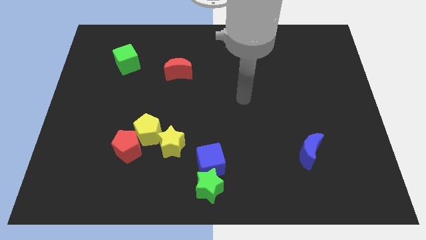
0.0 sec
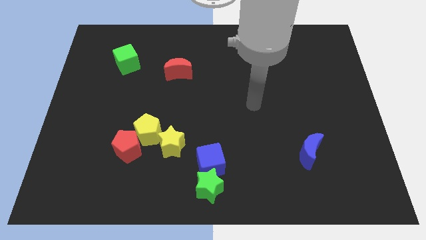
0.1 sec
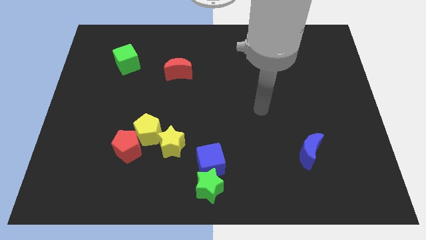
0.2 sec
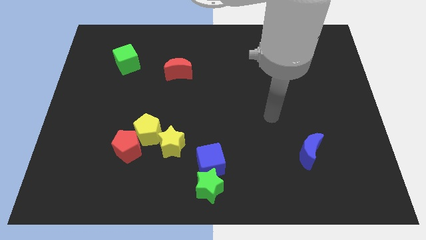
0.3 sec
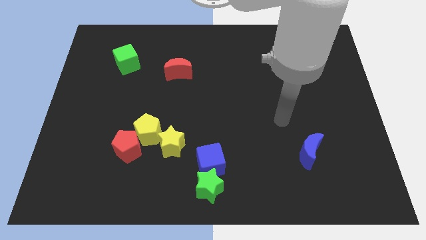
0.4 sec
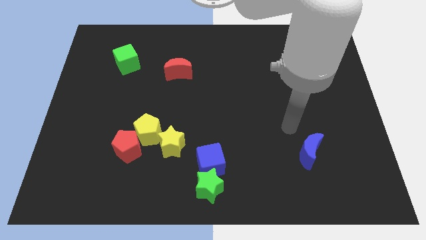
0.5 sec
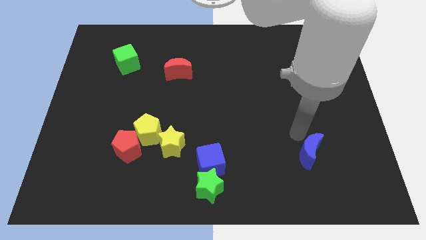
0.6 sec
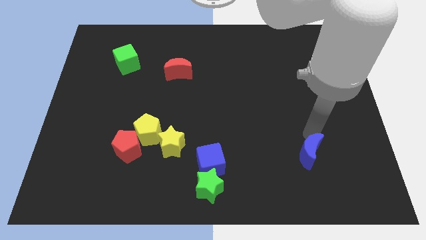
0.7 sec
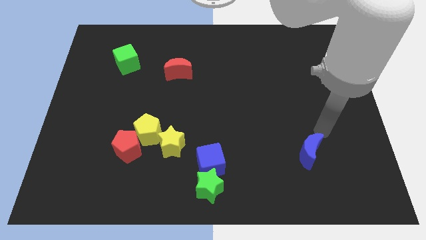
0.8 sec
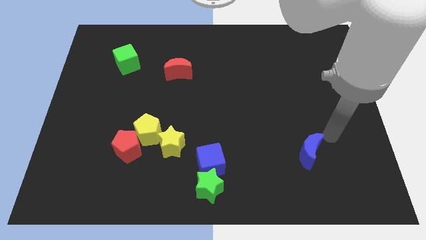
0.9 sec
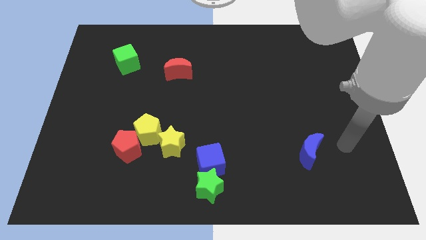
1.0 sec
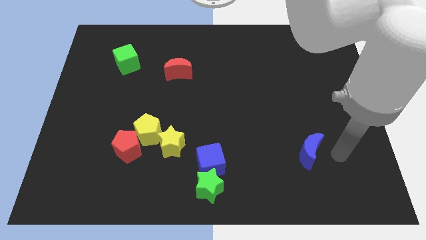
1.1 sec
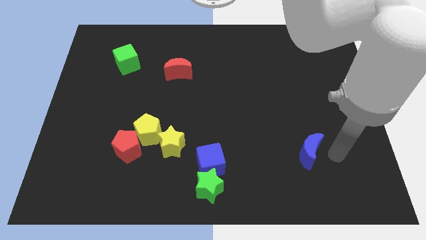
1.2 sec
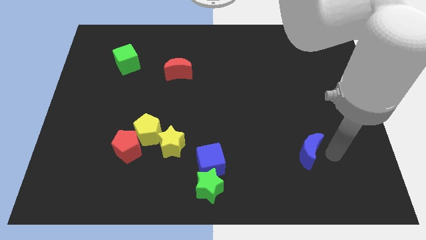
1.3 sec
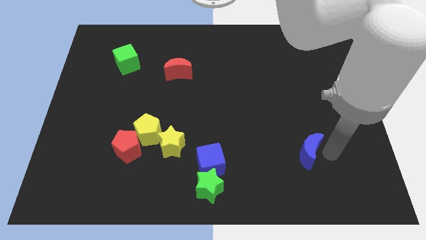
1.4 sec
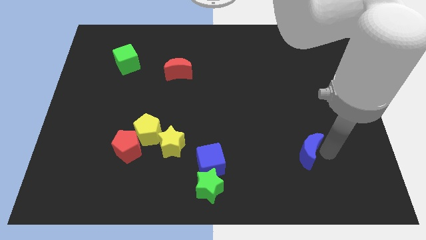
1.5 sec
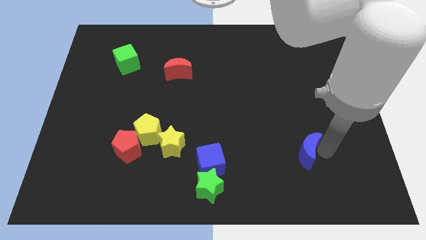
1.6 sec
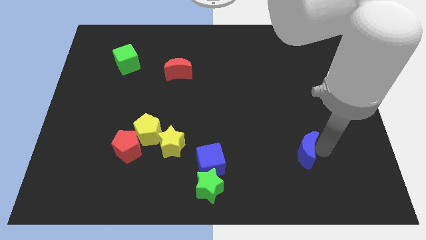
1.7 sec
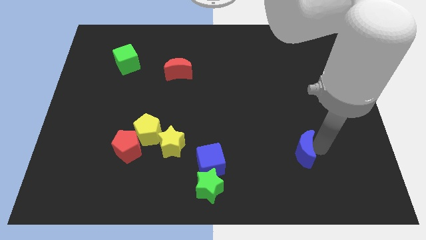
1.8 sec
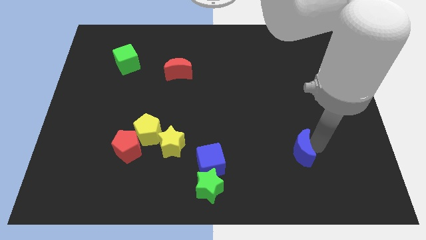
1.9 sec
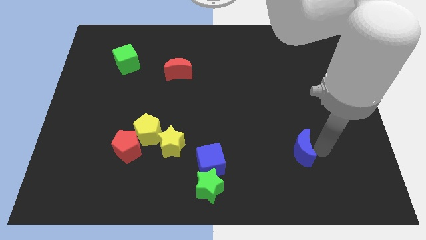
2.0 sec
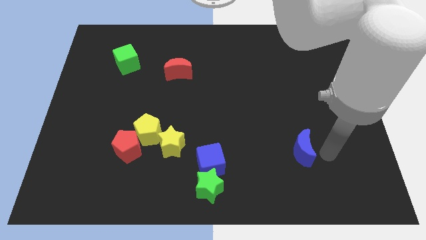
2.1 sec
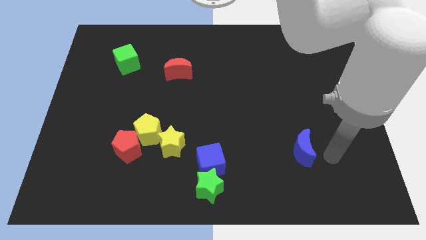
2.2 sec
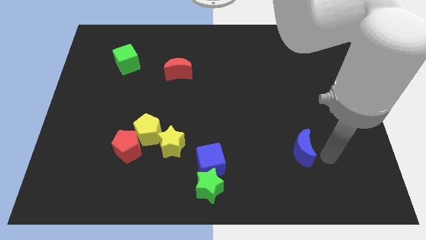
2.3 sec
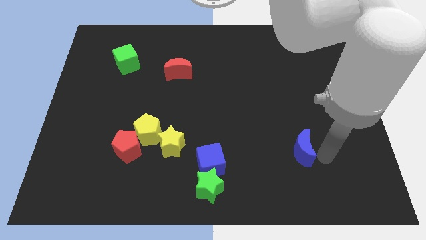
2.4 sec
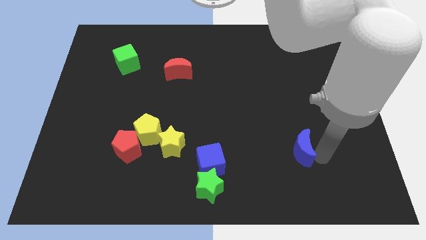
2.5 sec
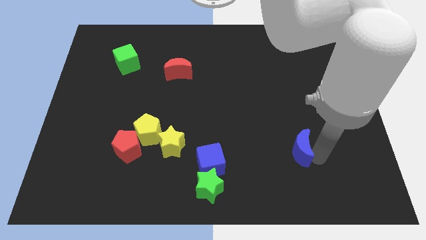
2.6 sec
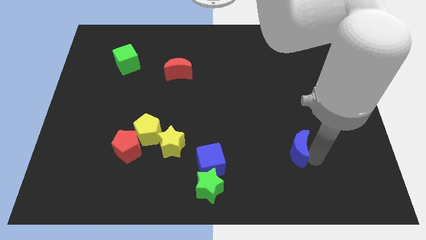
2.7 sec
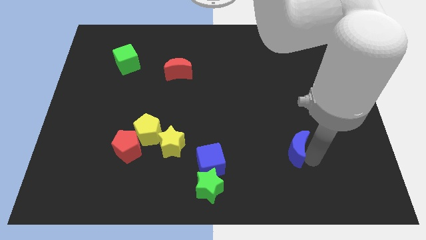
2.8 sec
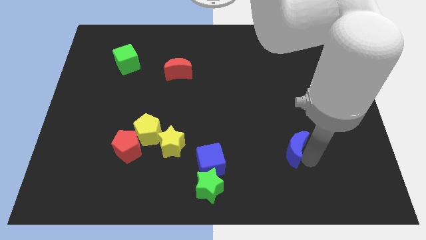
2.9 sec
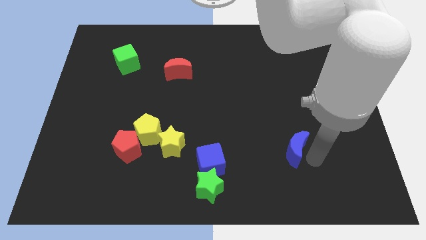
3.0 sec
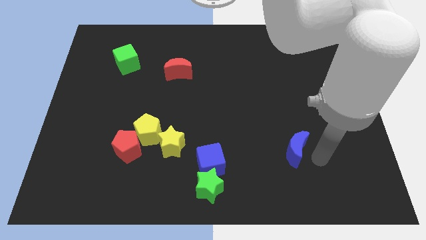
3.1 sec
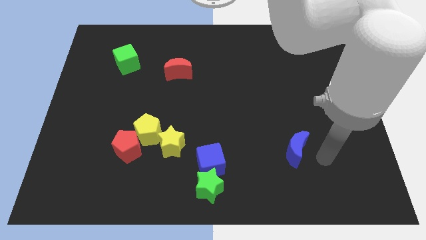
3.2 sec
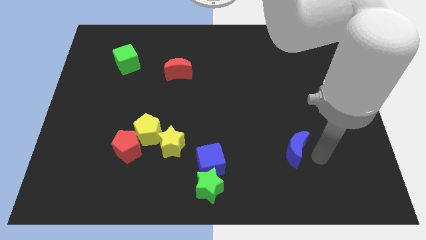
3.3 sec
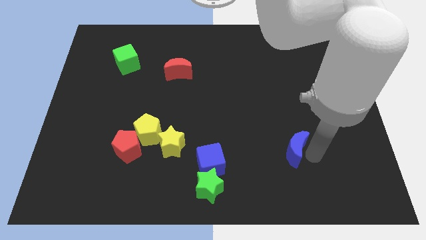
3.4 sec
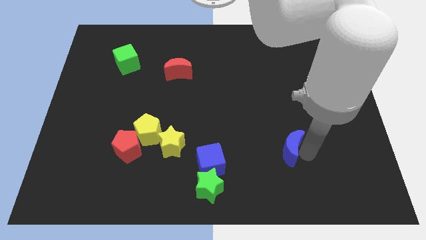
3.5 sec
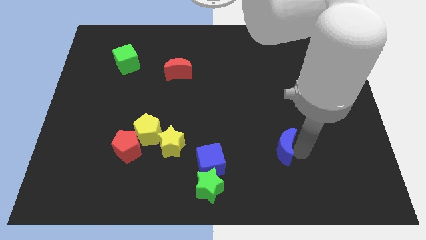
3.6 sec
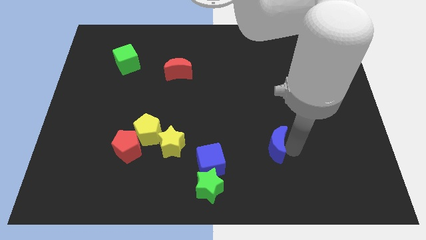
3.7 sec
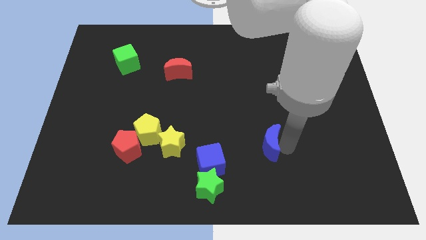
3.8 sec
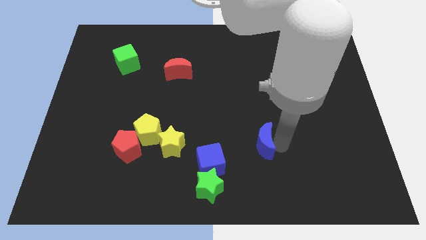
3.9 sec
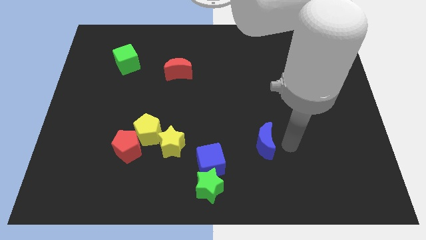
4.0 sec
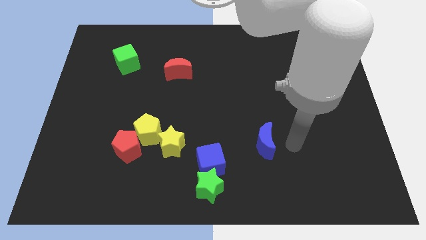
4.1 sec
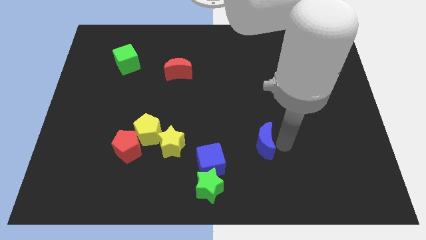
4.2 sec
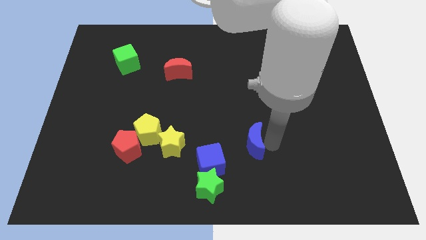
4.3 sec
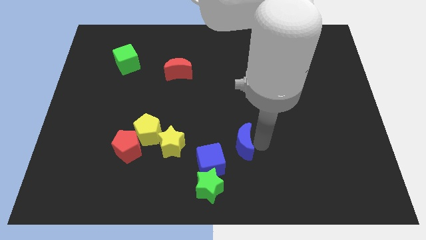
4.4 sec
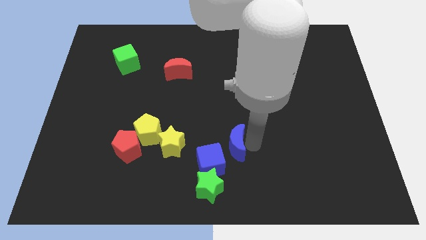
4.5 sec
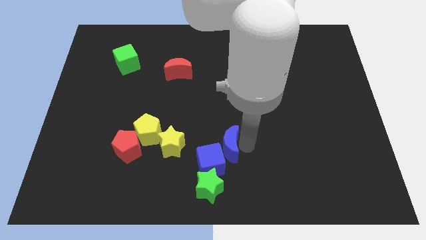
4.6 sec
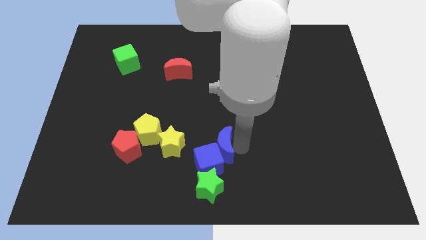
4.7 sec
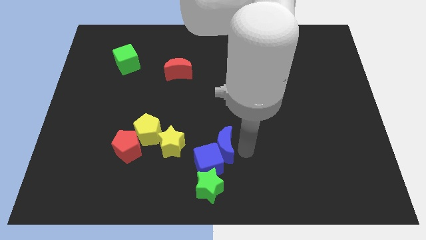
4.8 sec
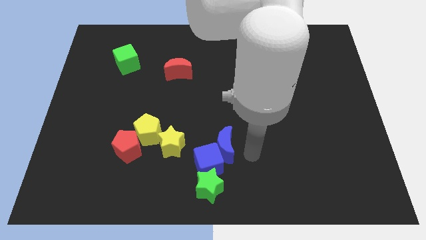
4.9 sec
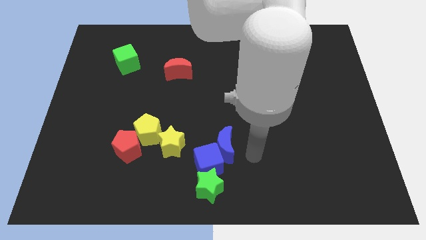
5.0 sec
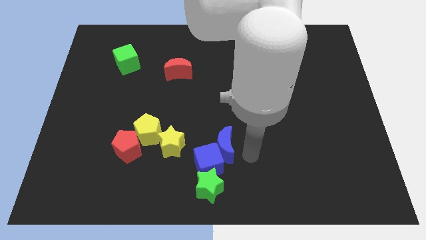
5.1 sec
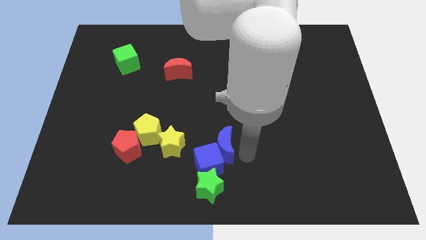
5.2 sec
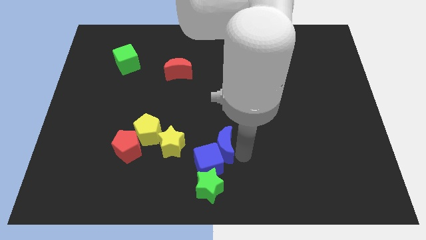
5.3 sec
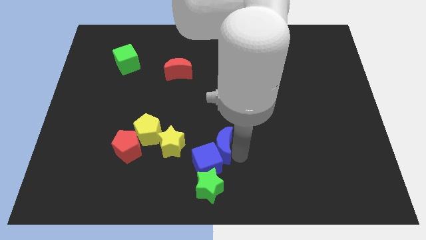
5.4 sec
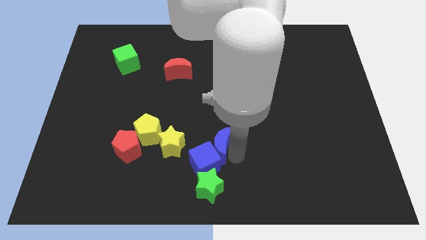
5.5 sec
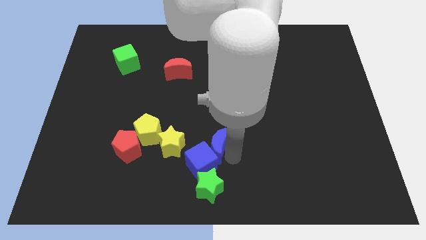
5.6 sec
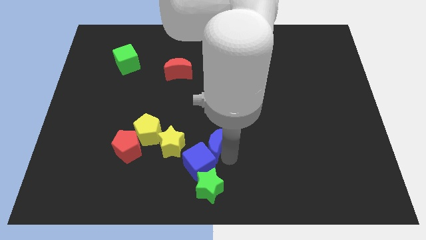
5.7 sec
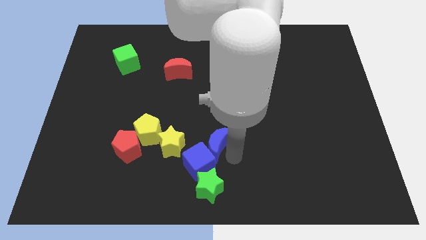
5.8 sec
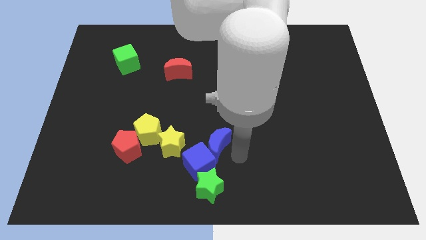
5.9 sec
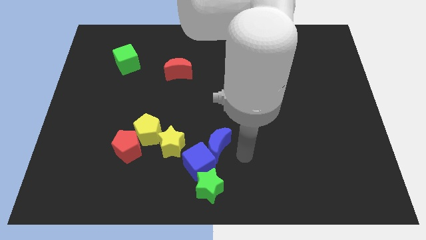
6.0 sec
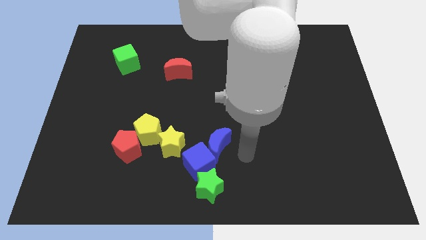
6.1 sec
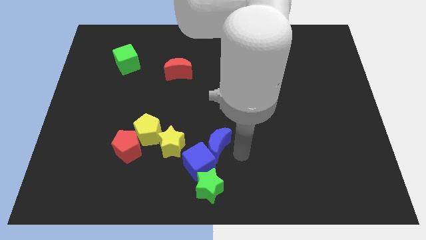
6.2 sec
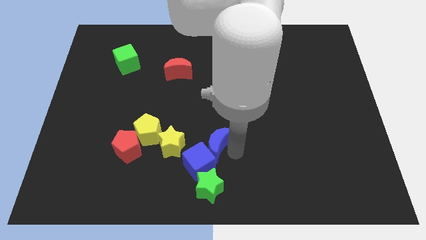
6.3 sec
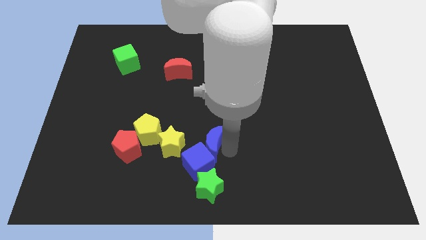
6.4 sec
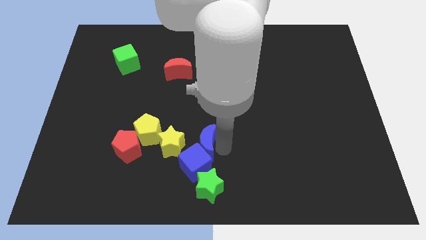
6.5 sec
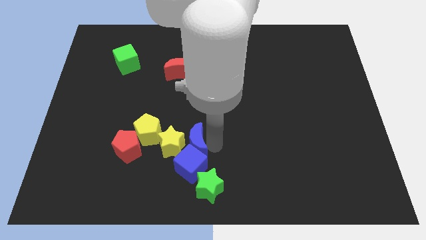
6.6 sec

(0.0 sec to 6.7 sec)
push the blue moon close to the yellow star

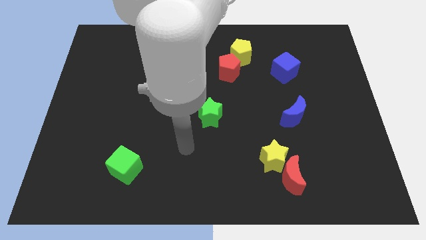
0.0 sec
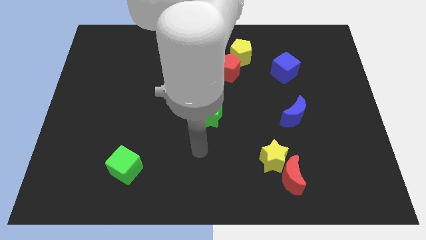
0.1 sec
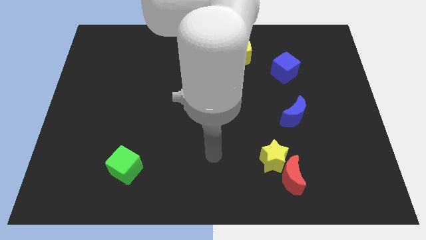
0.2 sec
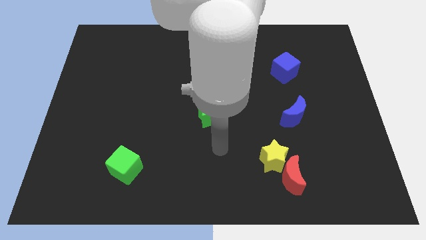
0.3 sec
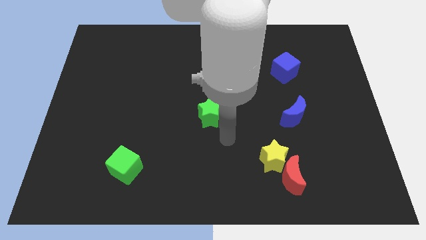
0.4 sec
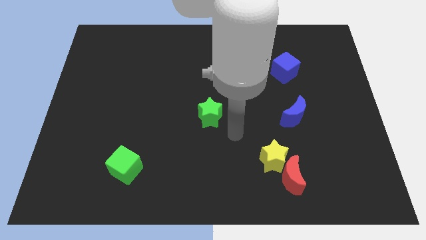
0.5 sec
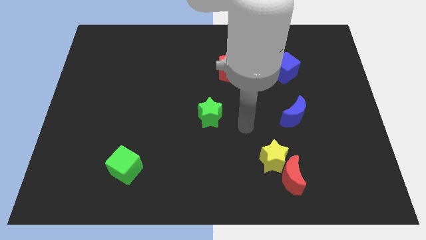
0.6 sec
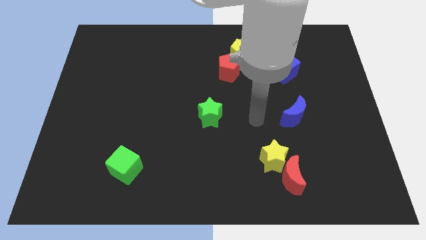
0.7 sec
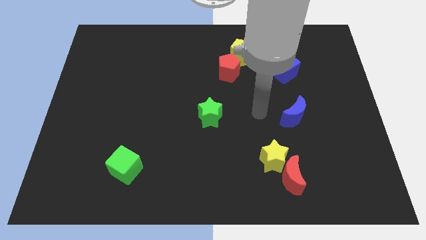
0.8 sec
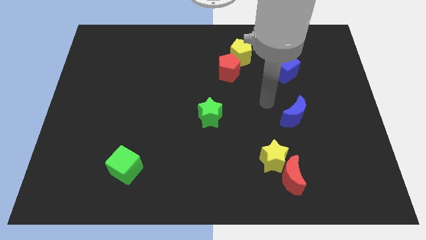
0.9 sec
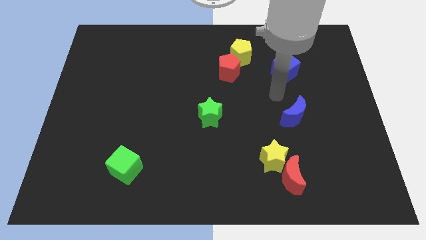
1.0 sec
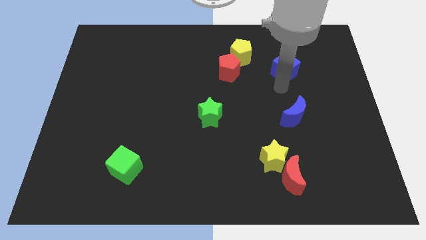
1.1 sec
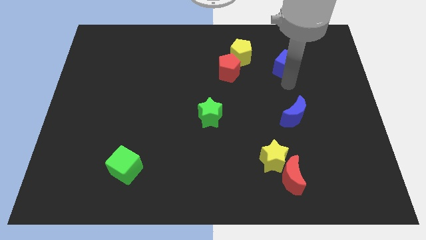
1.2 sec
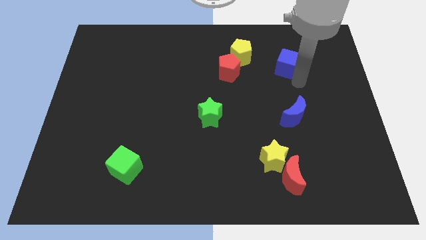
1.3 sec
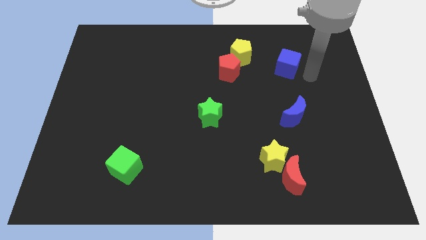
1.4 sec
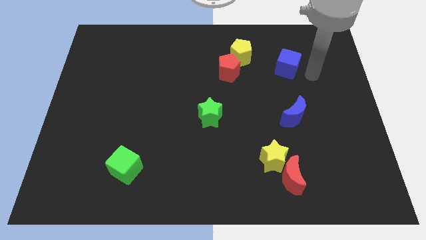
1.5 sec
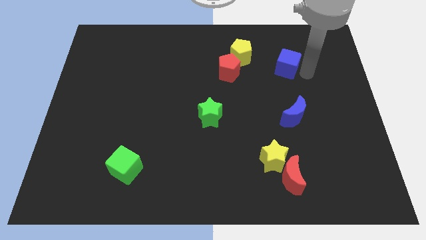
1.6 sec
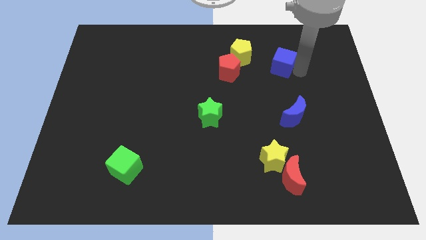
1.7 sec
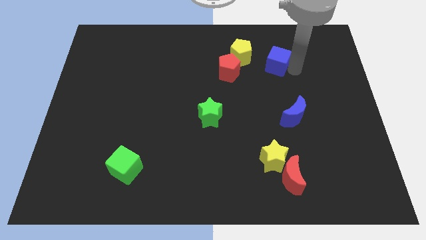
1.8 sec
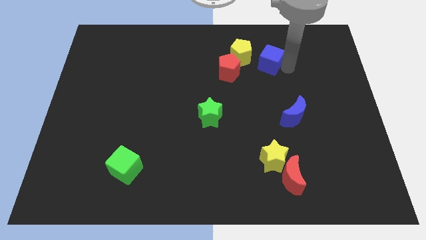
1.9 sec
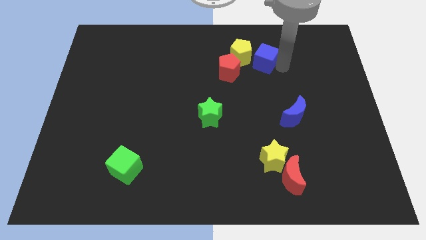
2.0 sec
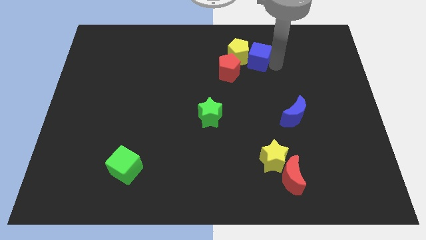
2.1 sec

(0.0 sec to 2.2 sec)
move the blue cube next to the yellow pentagon
